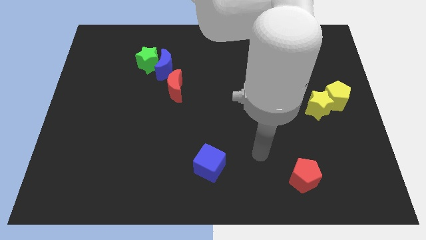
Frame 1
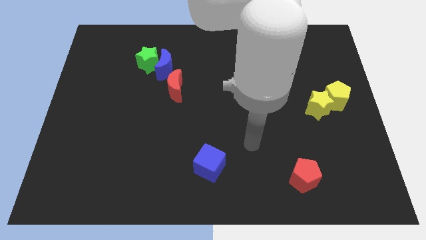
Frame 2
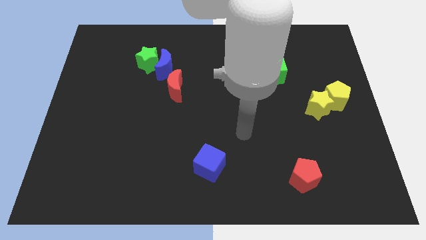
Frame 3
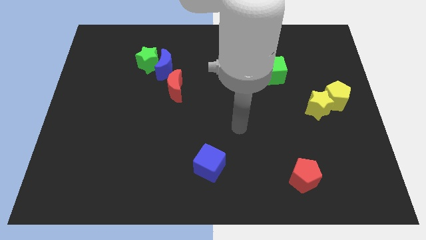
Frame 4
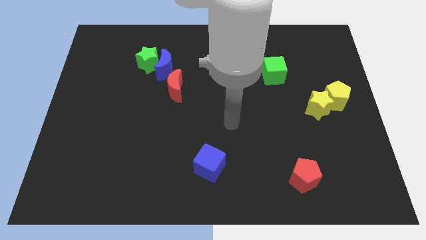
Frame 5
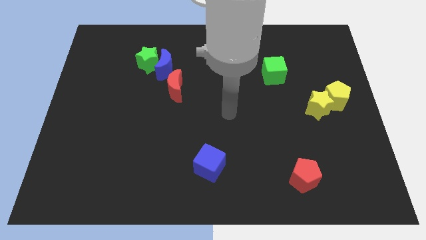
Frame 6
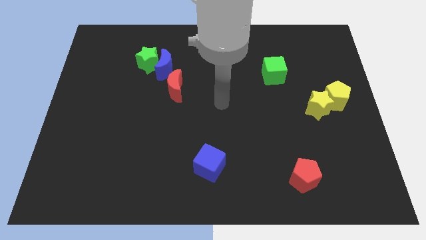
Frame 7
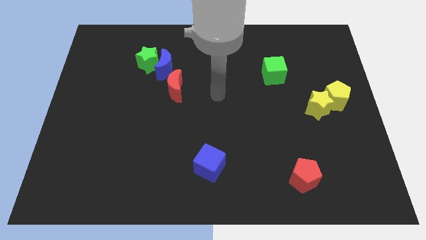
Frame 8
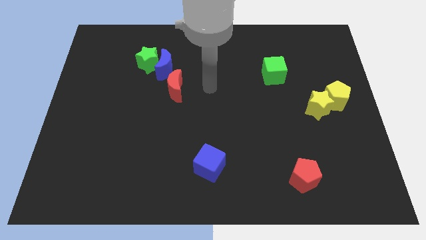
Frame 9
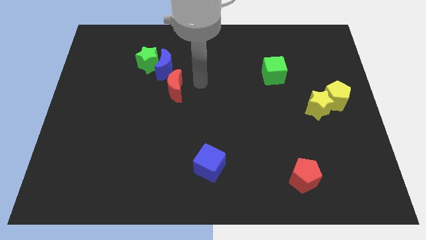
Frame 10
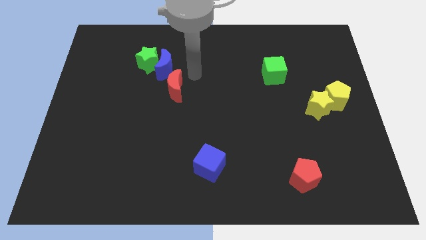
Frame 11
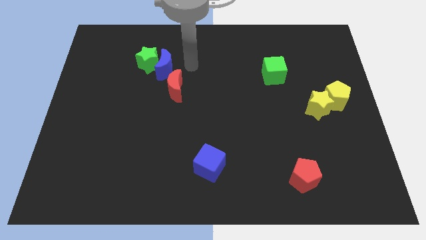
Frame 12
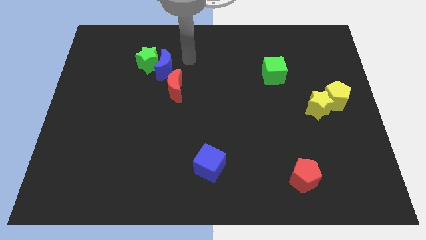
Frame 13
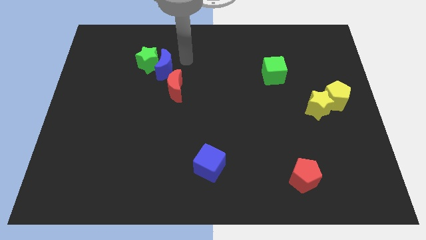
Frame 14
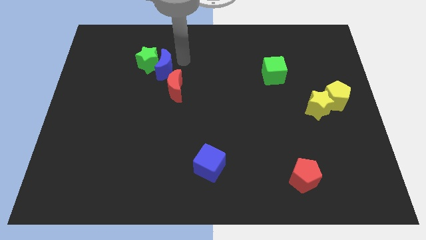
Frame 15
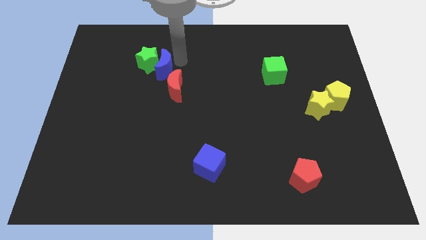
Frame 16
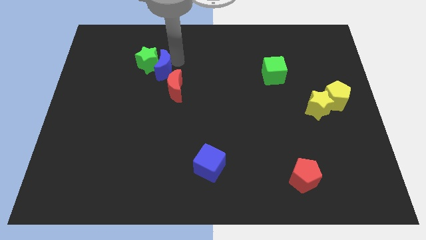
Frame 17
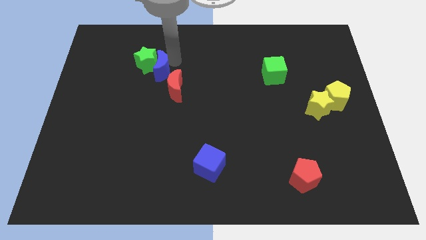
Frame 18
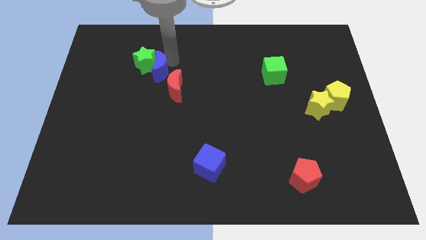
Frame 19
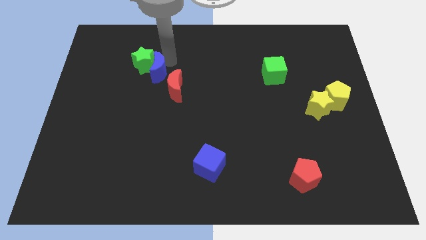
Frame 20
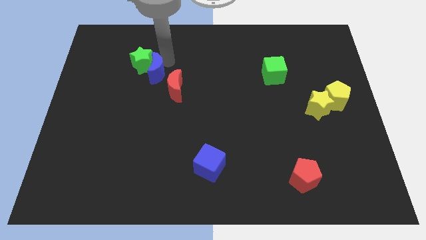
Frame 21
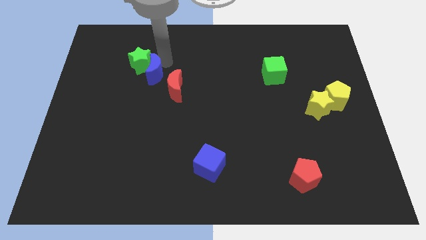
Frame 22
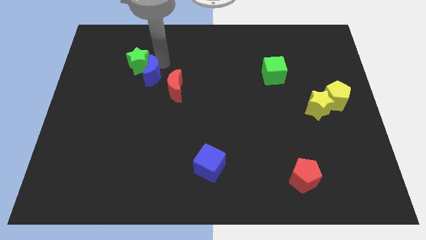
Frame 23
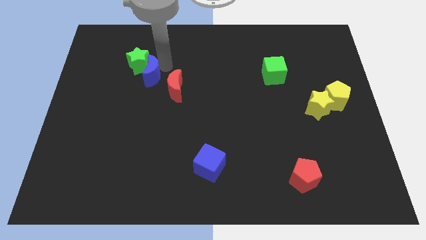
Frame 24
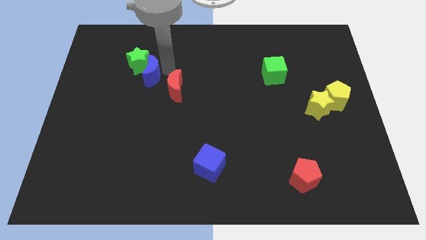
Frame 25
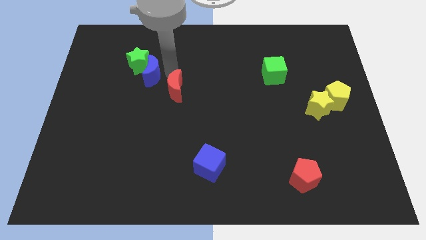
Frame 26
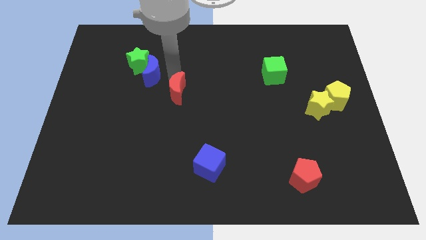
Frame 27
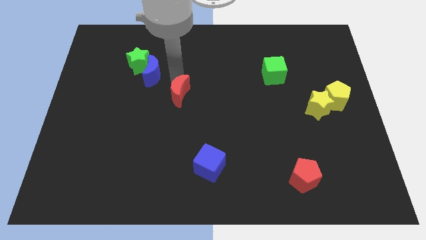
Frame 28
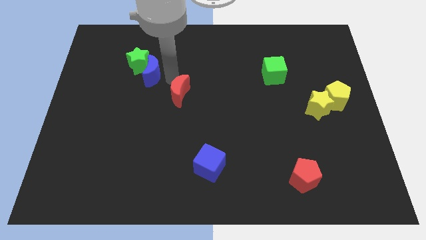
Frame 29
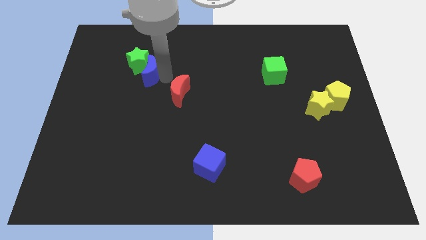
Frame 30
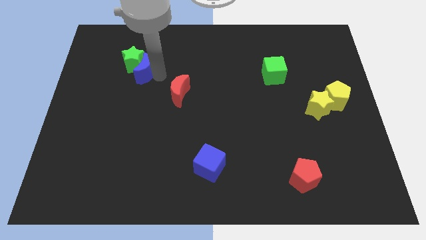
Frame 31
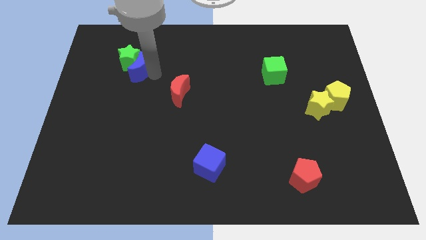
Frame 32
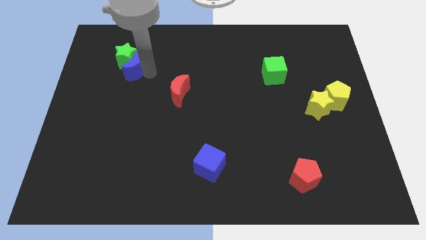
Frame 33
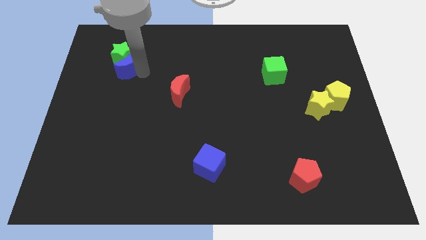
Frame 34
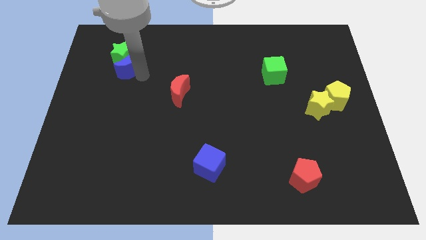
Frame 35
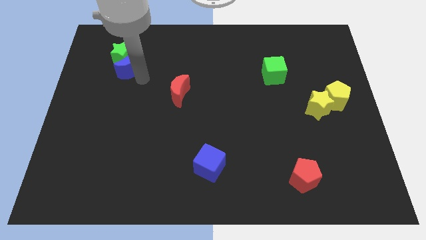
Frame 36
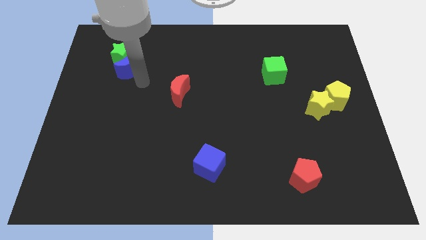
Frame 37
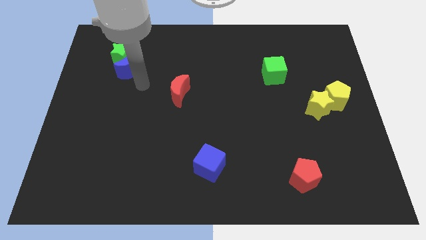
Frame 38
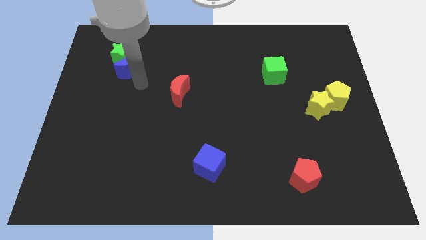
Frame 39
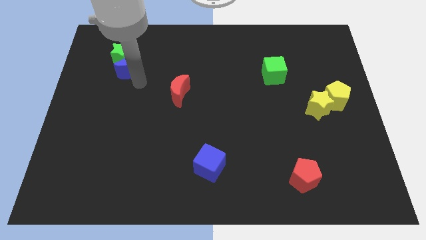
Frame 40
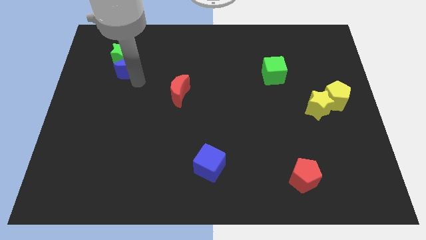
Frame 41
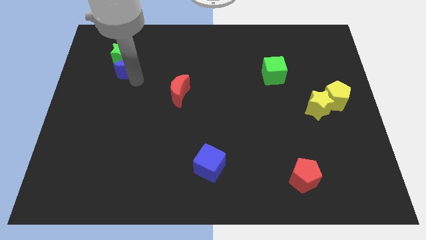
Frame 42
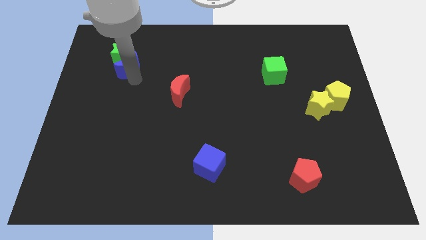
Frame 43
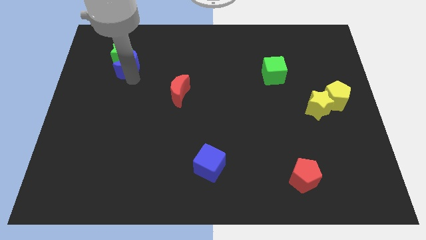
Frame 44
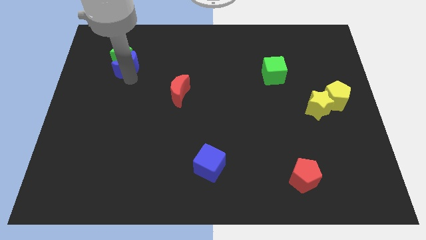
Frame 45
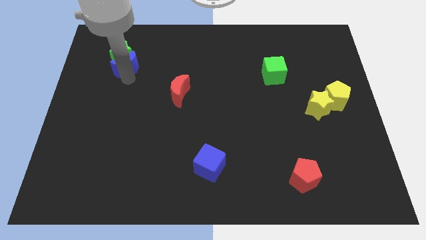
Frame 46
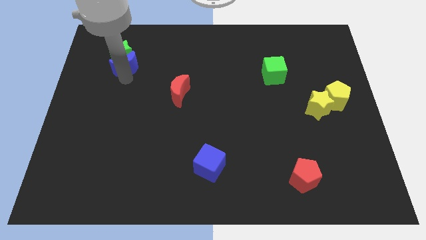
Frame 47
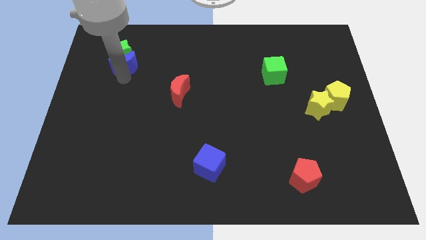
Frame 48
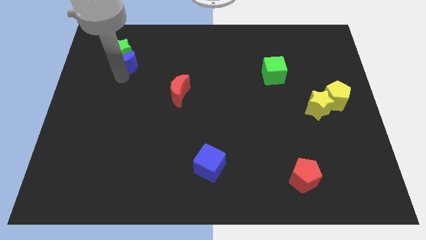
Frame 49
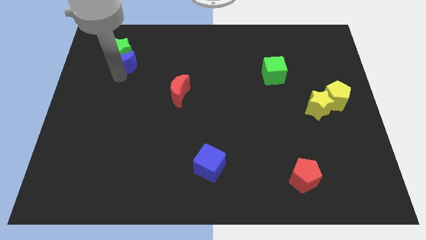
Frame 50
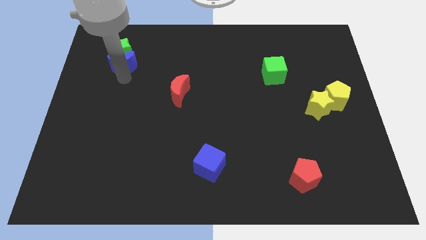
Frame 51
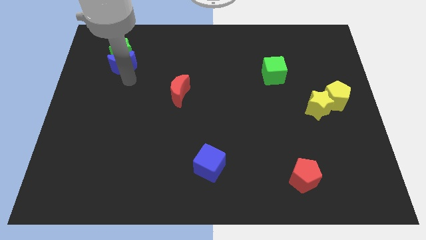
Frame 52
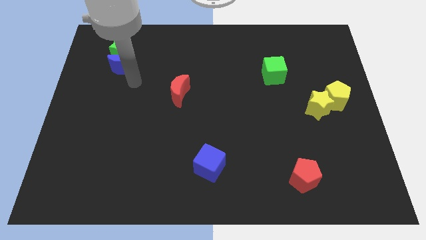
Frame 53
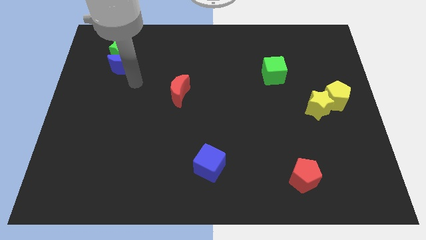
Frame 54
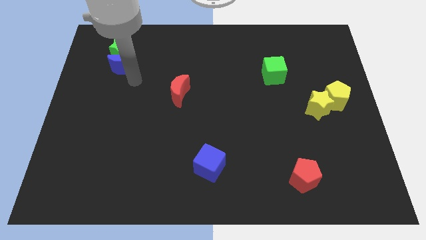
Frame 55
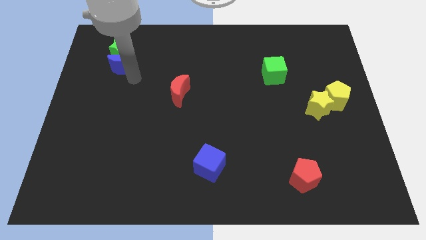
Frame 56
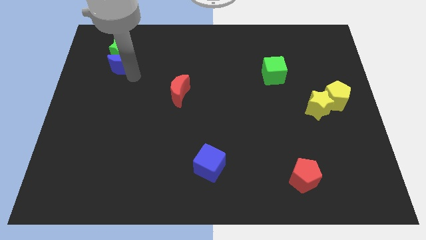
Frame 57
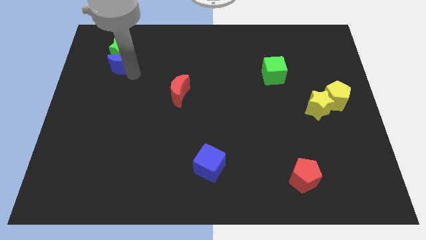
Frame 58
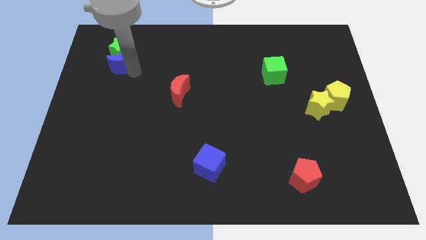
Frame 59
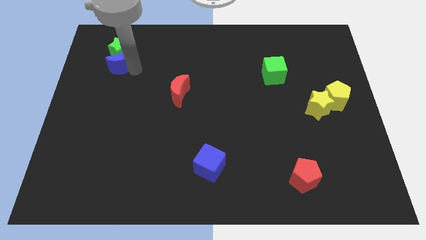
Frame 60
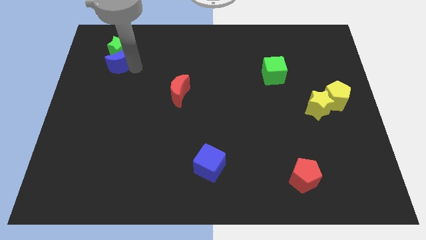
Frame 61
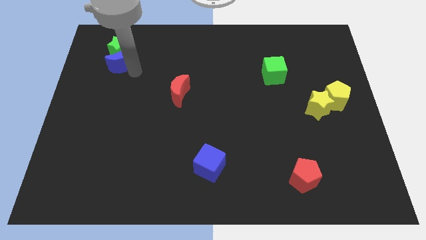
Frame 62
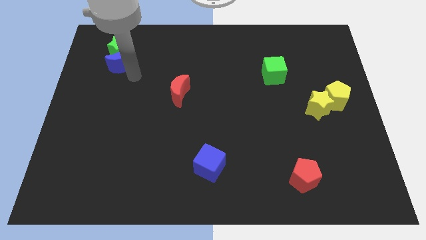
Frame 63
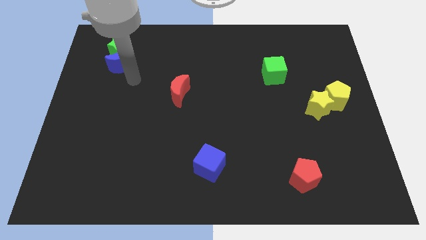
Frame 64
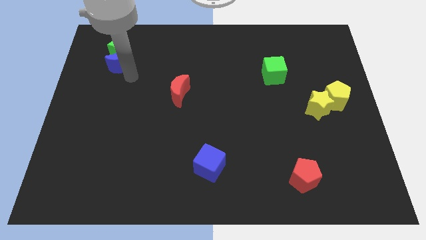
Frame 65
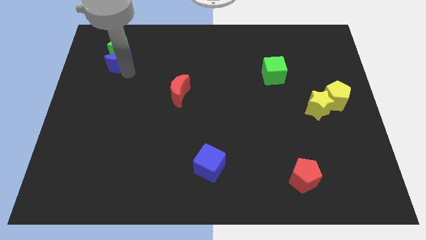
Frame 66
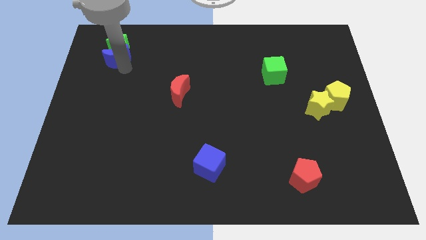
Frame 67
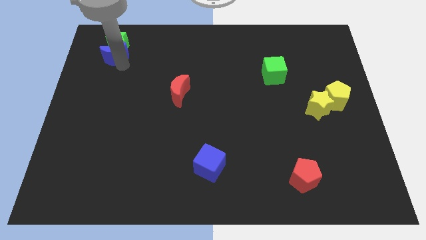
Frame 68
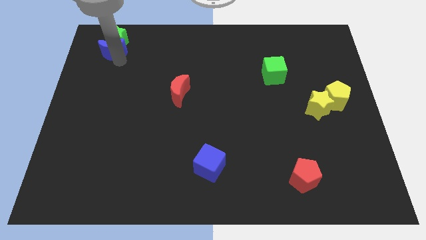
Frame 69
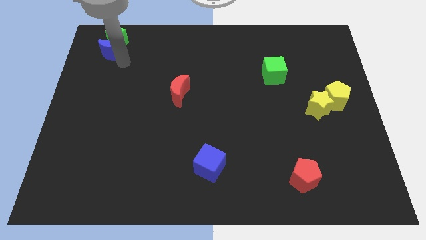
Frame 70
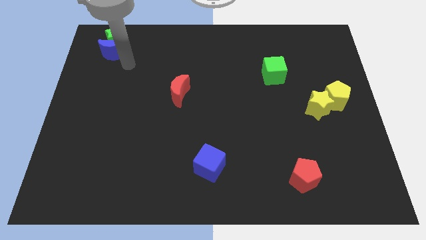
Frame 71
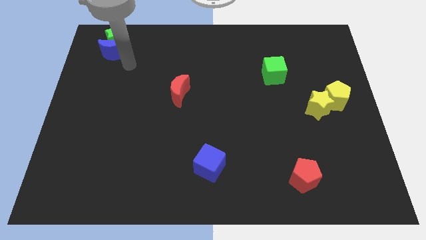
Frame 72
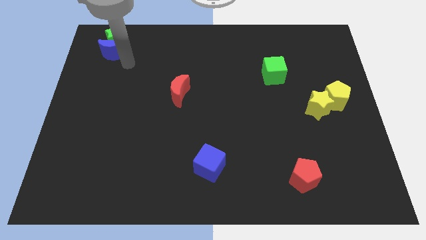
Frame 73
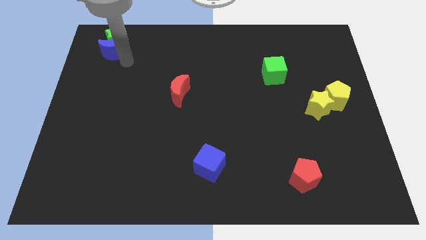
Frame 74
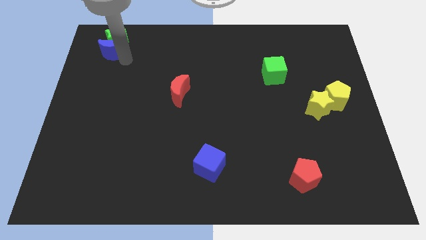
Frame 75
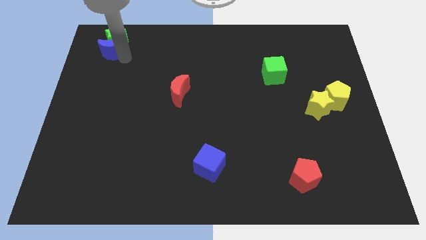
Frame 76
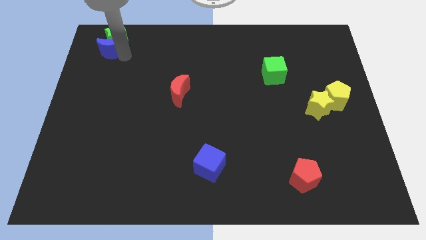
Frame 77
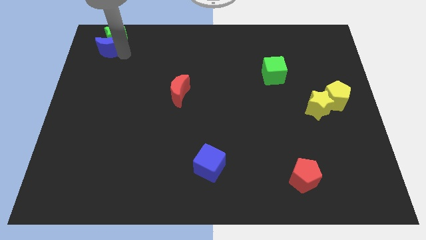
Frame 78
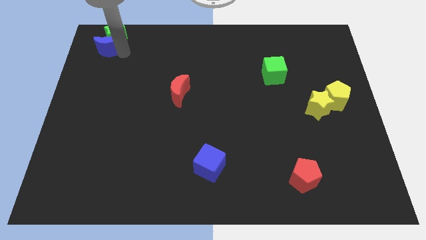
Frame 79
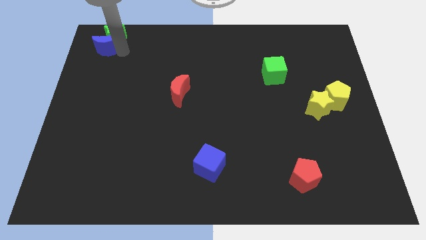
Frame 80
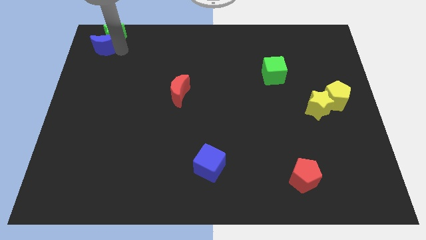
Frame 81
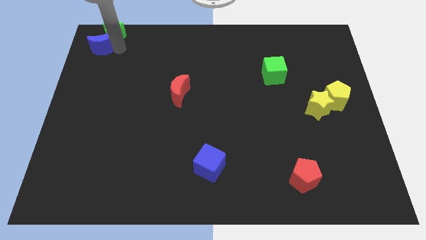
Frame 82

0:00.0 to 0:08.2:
slide the blue moon to the top left

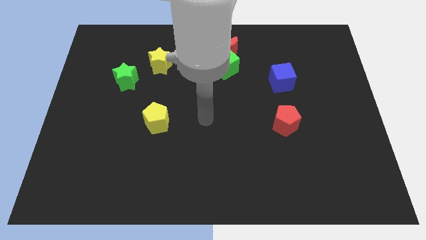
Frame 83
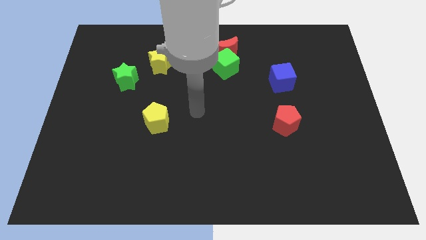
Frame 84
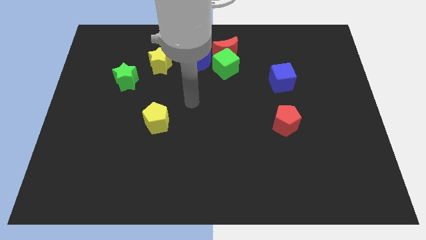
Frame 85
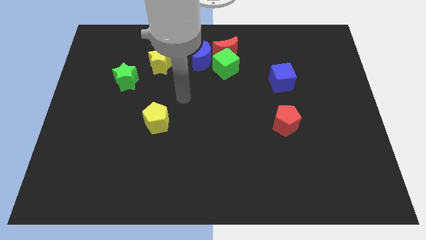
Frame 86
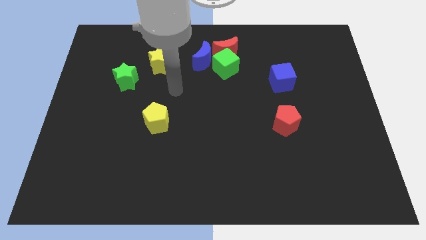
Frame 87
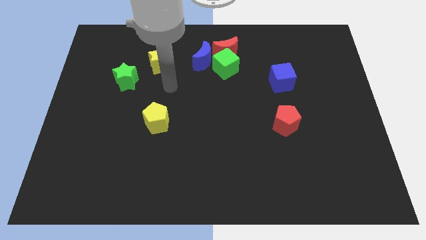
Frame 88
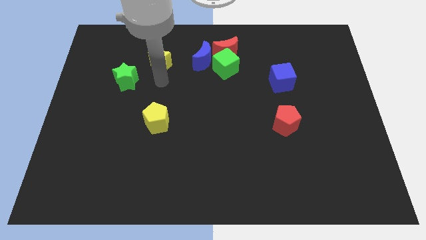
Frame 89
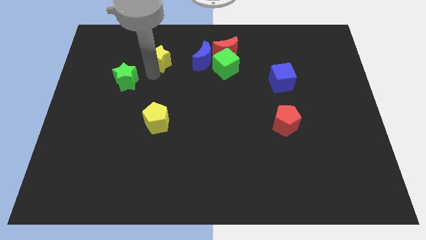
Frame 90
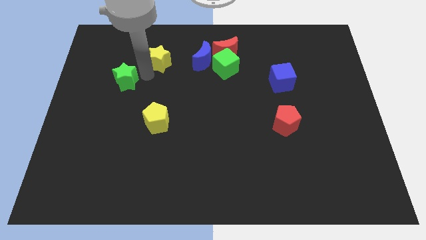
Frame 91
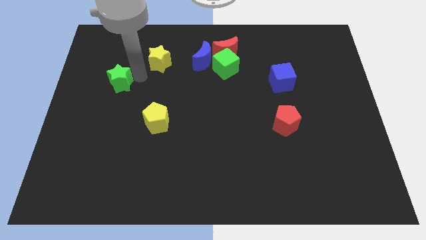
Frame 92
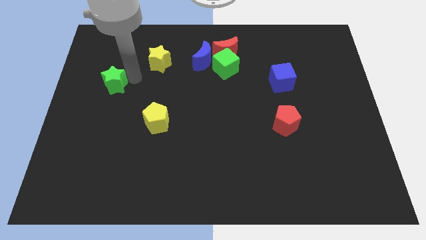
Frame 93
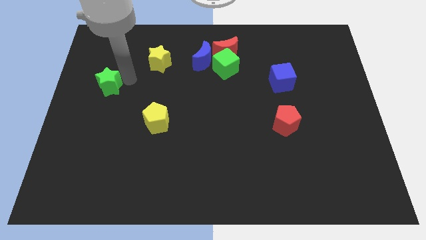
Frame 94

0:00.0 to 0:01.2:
slide the green star to the center left
